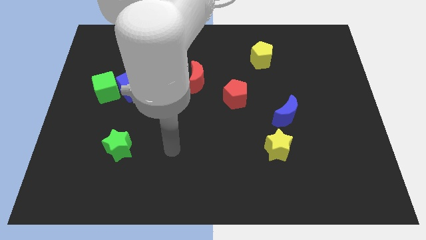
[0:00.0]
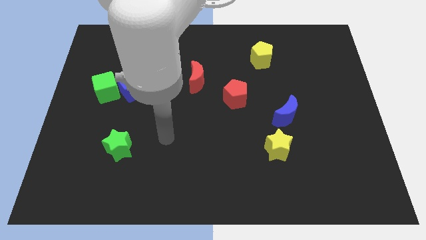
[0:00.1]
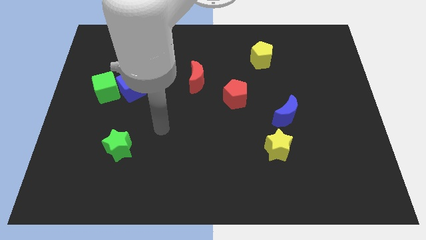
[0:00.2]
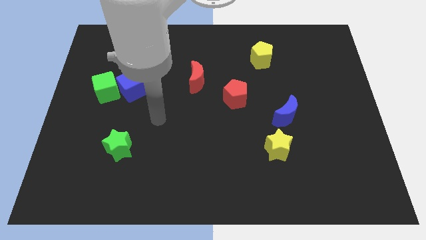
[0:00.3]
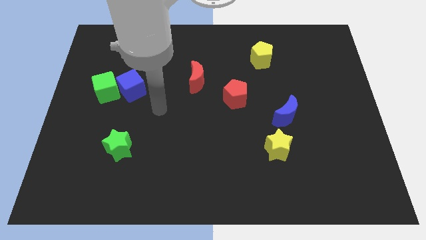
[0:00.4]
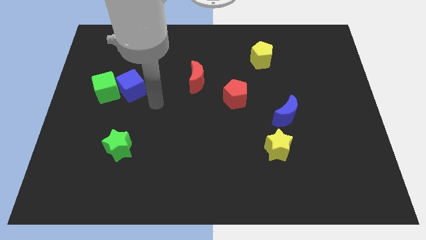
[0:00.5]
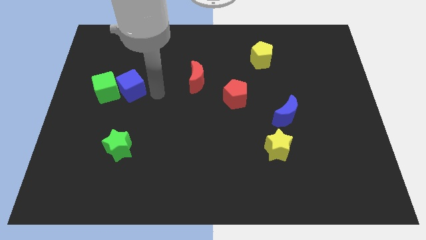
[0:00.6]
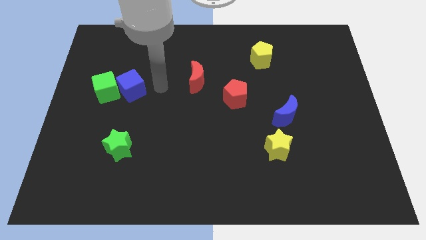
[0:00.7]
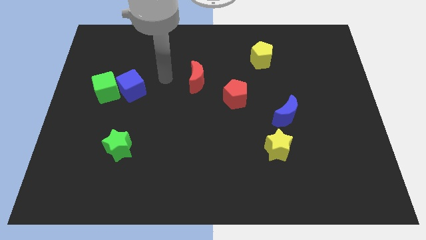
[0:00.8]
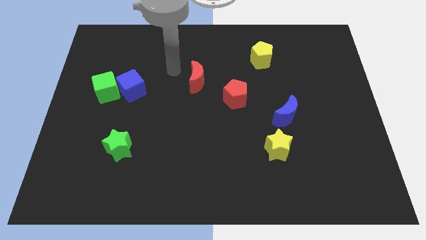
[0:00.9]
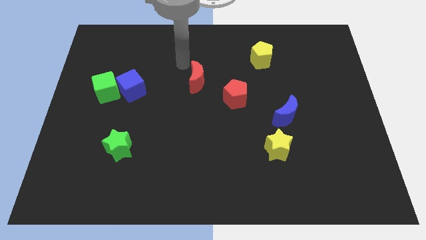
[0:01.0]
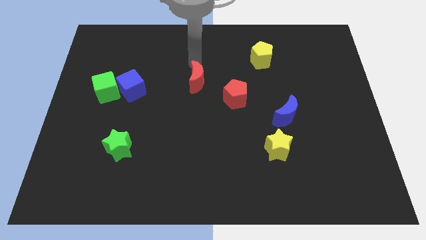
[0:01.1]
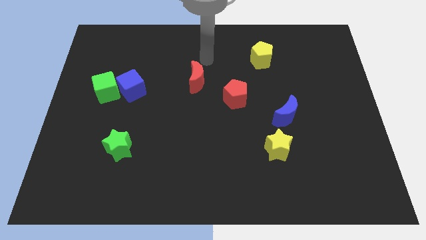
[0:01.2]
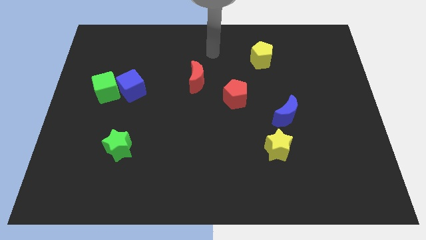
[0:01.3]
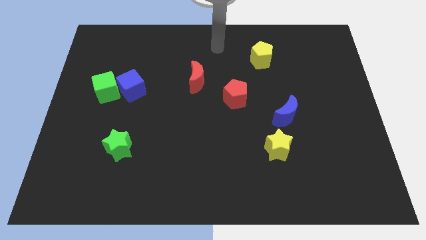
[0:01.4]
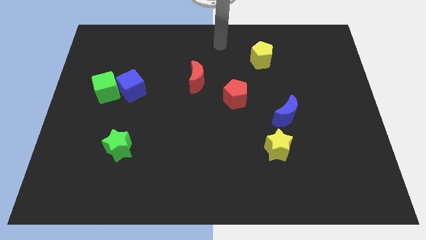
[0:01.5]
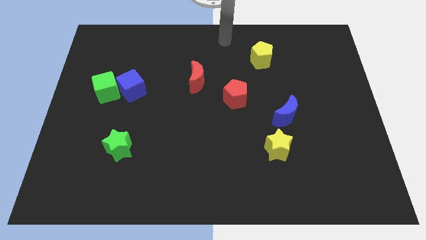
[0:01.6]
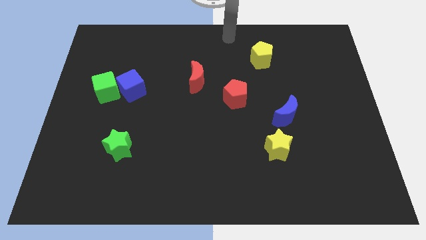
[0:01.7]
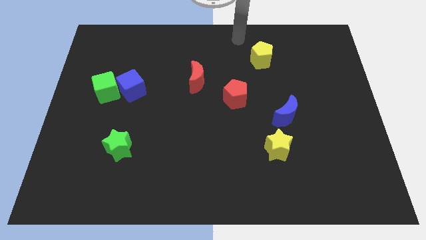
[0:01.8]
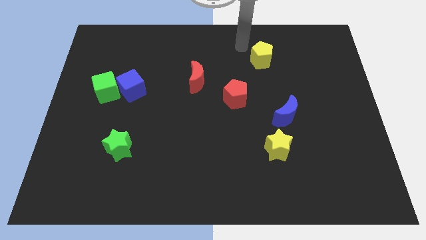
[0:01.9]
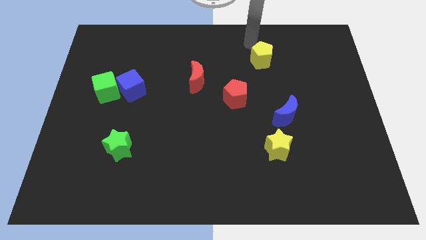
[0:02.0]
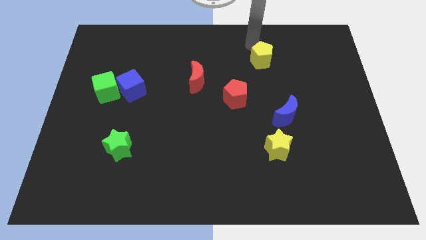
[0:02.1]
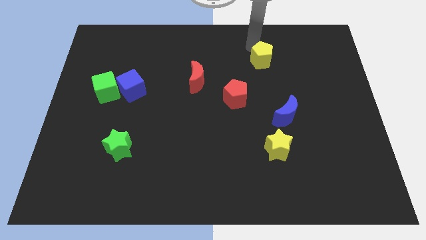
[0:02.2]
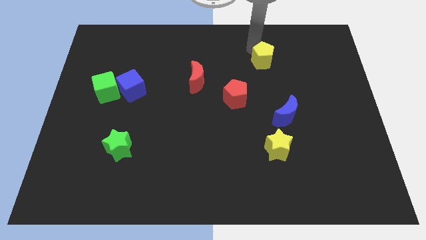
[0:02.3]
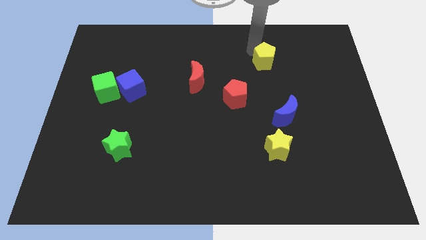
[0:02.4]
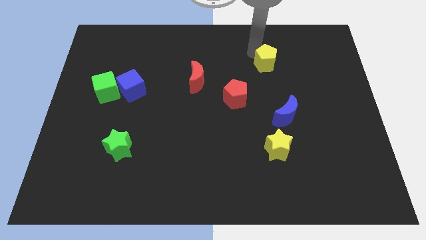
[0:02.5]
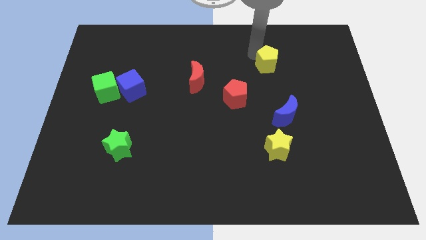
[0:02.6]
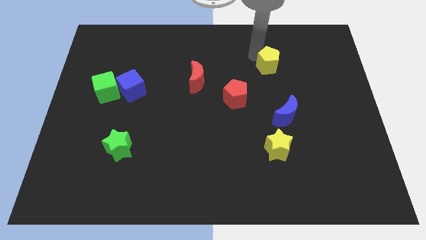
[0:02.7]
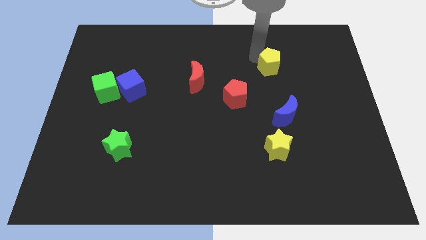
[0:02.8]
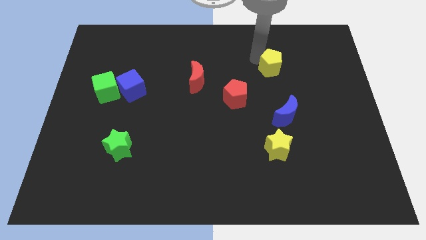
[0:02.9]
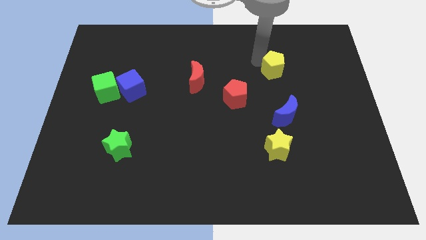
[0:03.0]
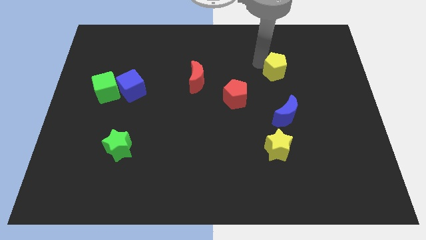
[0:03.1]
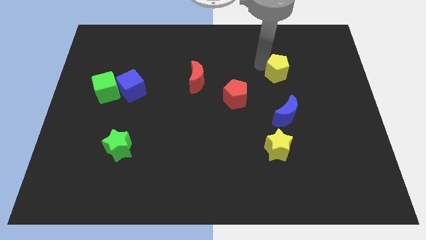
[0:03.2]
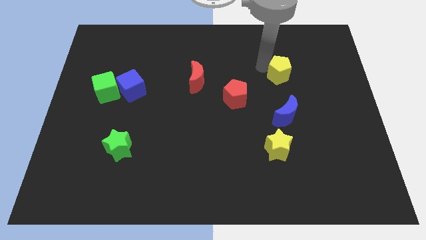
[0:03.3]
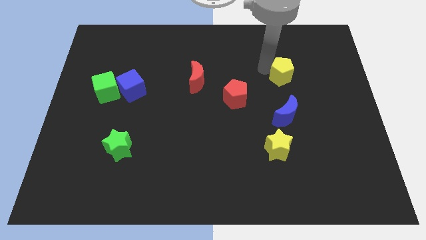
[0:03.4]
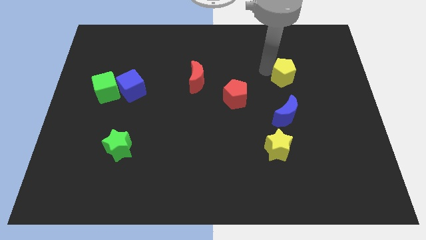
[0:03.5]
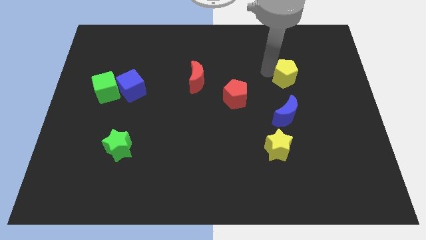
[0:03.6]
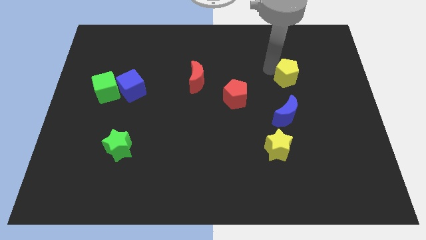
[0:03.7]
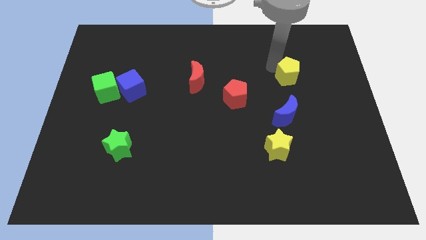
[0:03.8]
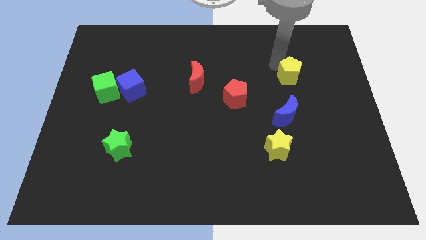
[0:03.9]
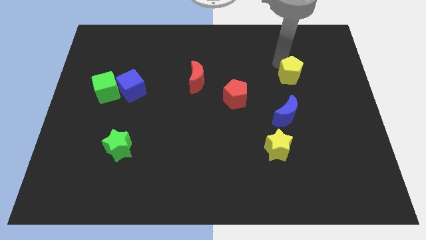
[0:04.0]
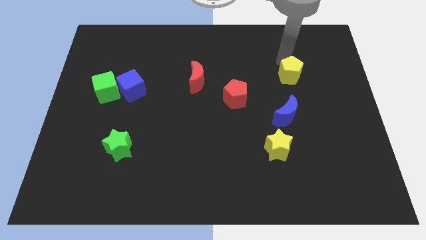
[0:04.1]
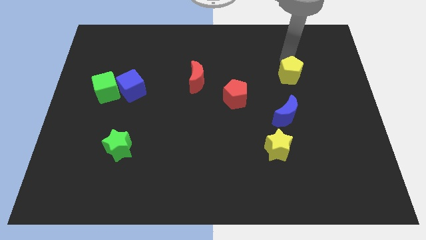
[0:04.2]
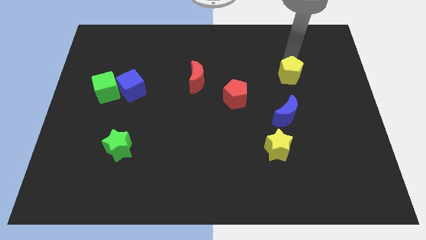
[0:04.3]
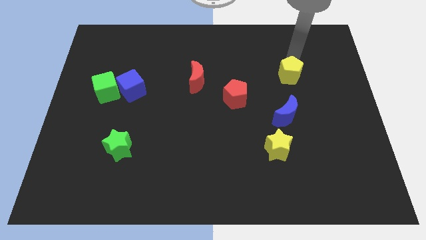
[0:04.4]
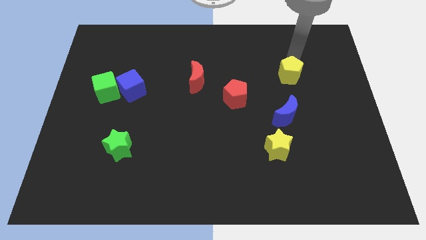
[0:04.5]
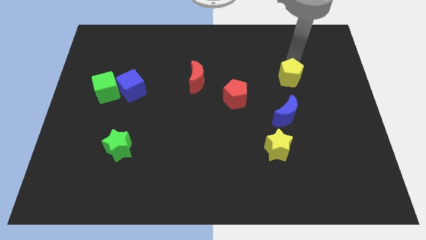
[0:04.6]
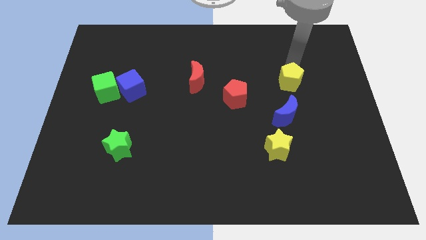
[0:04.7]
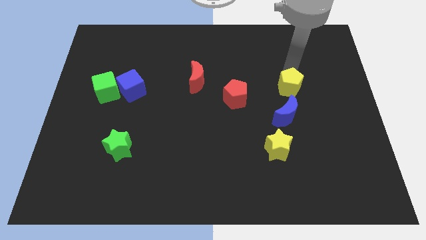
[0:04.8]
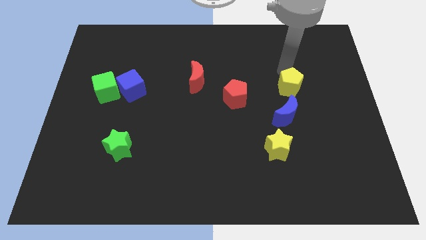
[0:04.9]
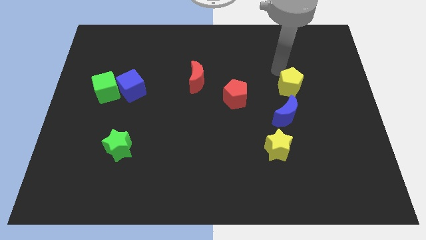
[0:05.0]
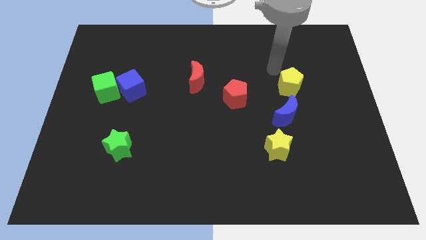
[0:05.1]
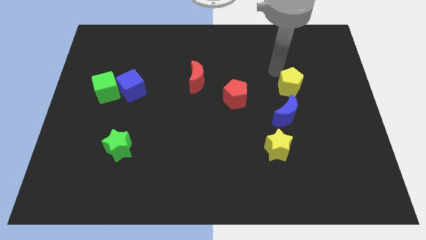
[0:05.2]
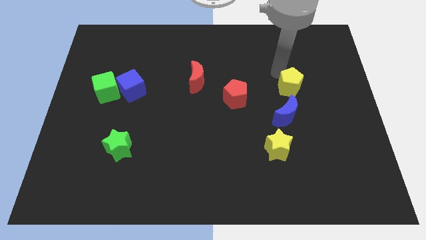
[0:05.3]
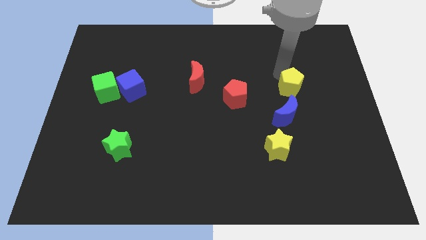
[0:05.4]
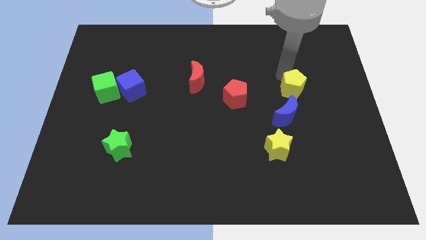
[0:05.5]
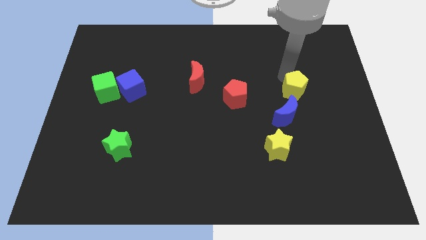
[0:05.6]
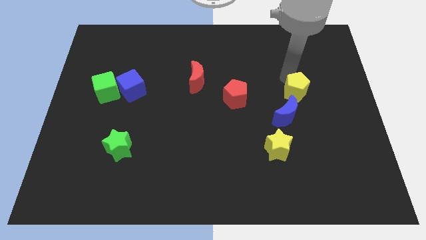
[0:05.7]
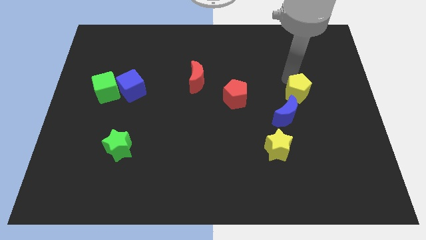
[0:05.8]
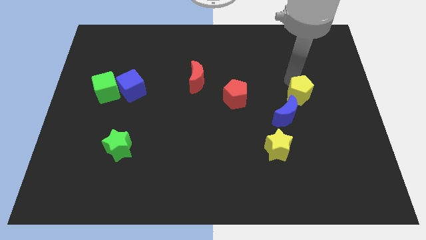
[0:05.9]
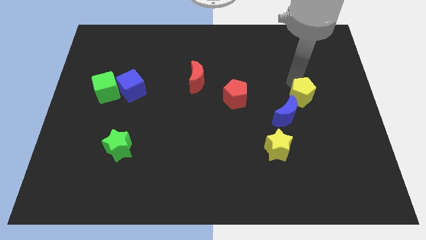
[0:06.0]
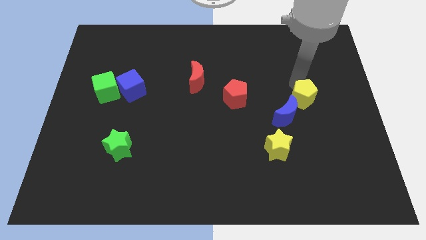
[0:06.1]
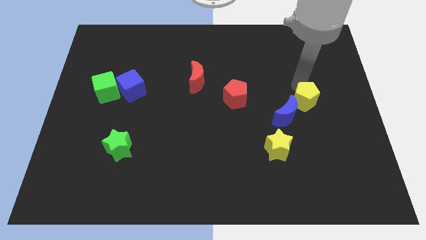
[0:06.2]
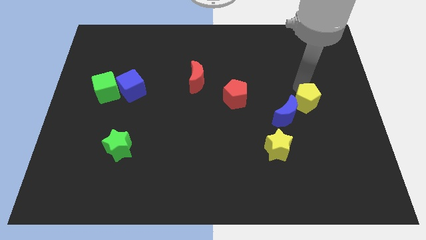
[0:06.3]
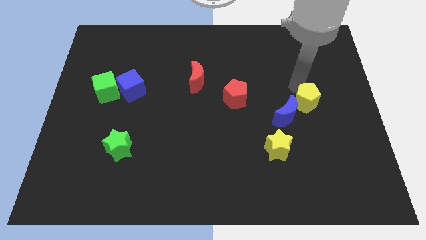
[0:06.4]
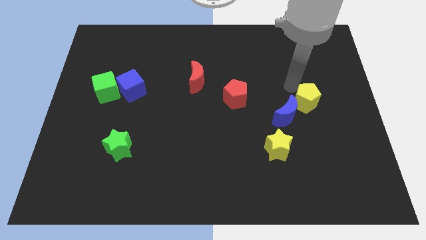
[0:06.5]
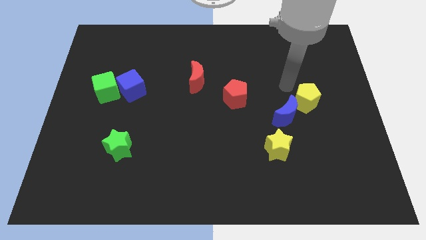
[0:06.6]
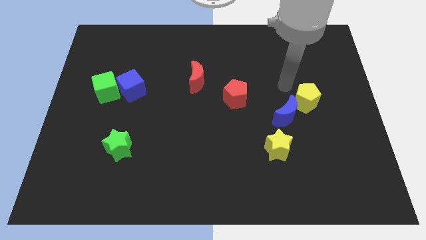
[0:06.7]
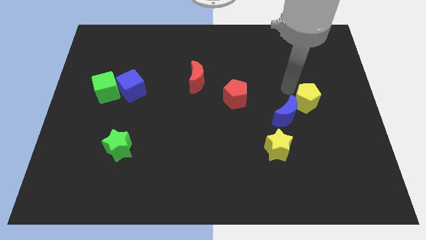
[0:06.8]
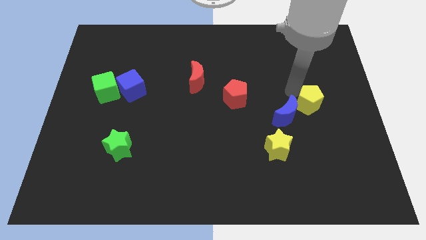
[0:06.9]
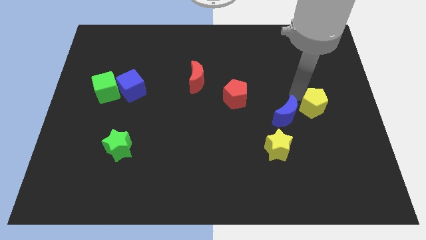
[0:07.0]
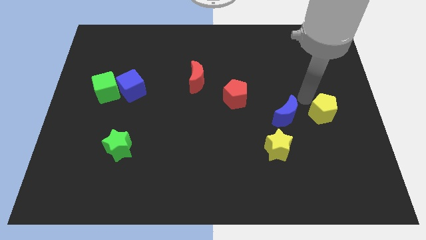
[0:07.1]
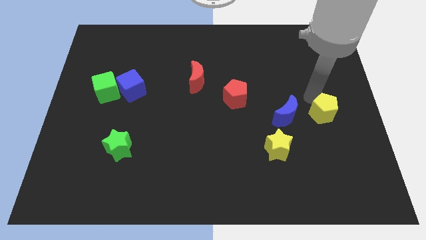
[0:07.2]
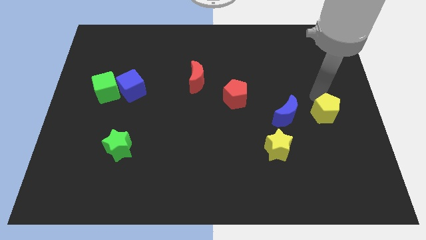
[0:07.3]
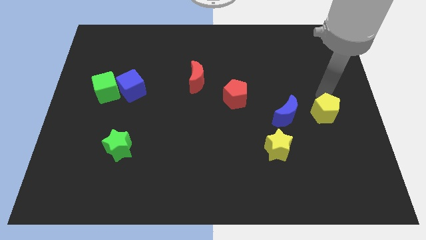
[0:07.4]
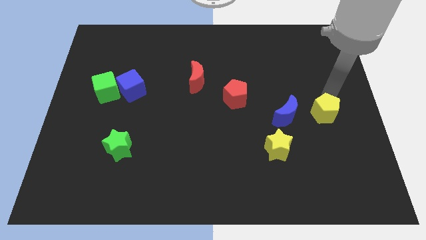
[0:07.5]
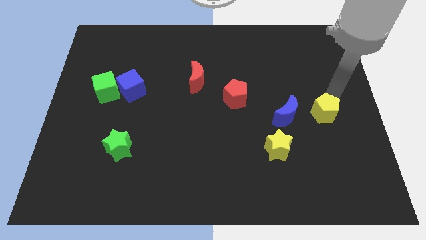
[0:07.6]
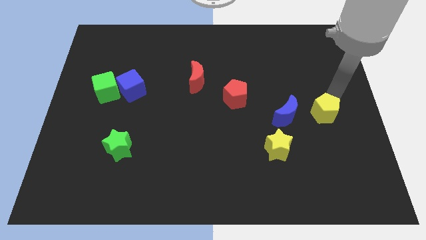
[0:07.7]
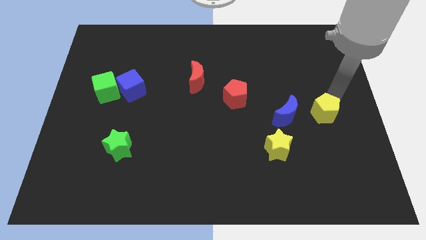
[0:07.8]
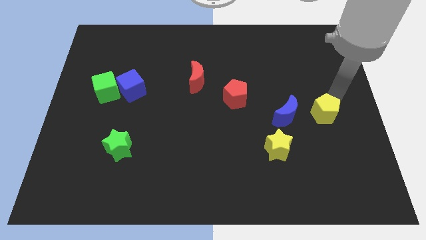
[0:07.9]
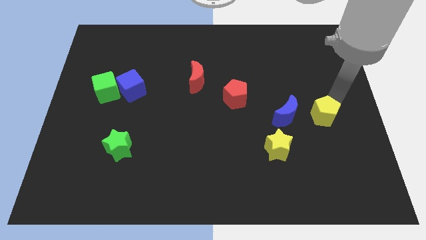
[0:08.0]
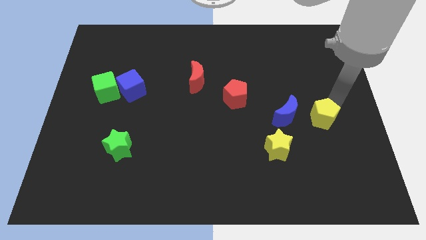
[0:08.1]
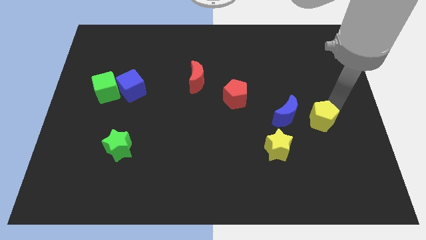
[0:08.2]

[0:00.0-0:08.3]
put the yellow pentagon to the bottom right side of the blue moon
